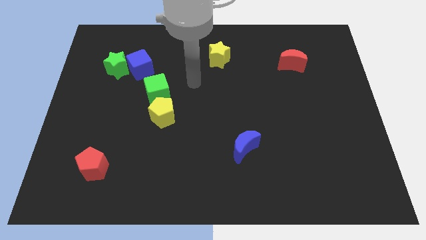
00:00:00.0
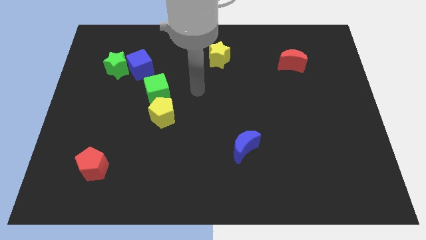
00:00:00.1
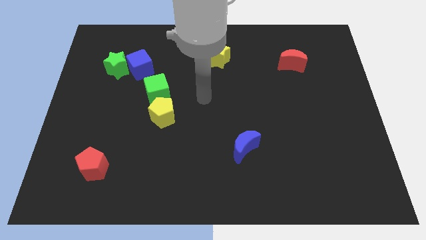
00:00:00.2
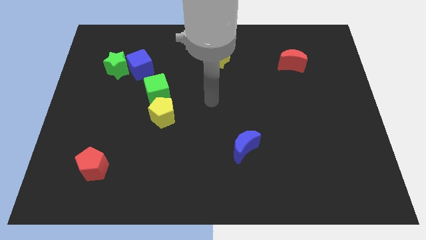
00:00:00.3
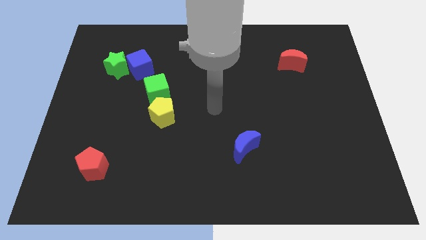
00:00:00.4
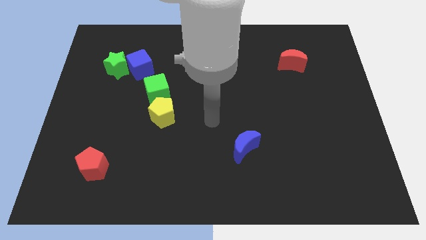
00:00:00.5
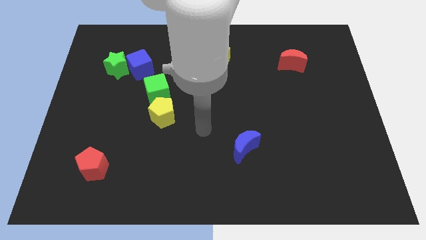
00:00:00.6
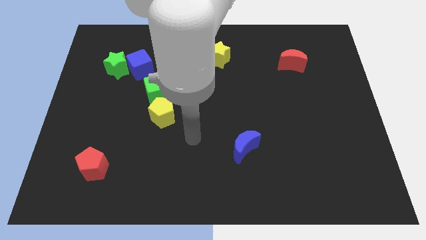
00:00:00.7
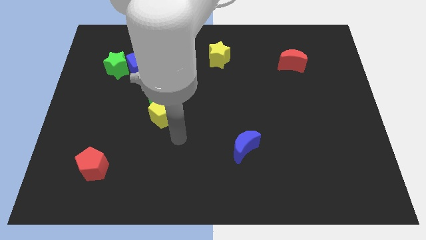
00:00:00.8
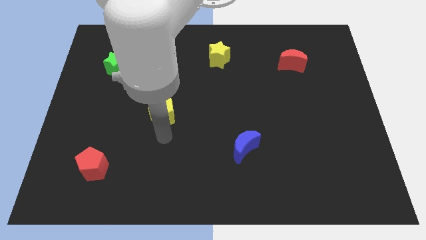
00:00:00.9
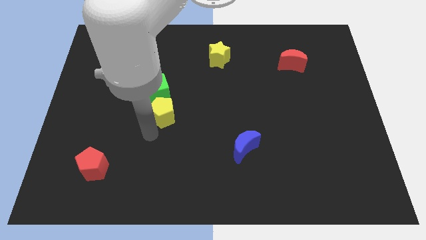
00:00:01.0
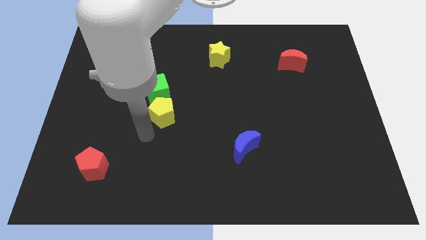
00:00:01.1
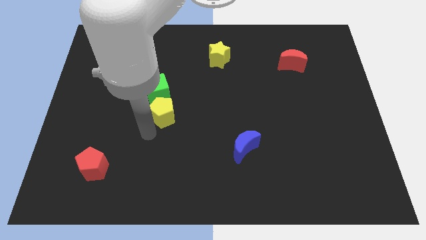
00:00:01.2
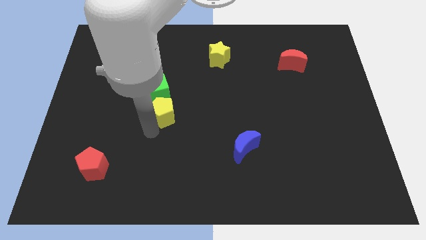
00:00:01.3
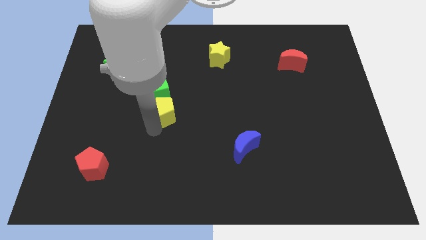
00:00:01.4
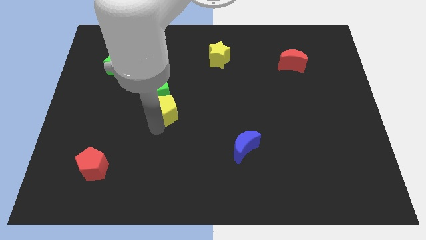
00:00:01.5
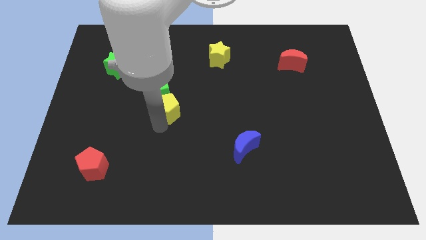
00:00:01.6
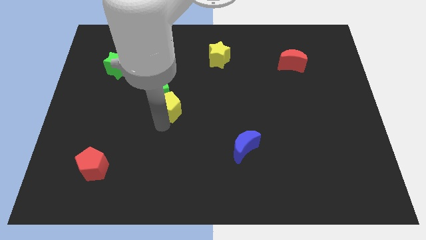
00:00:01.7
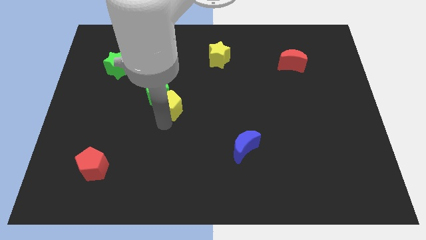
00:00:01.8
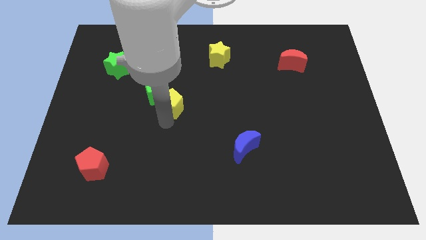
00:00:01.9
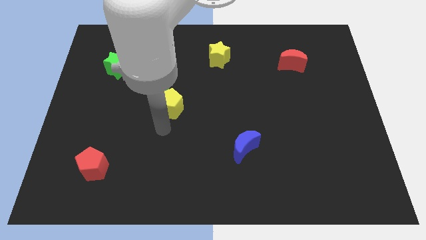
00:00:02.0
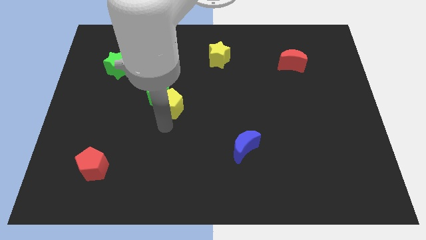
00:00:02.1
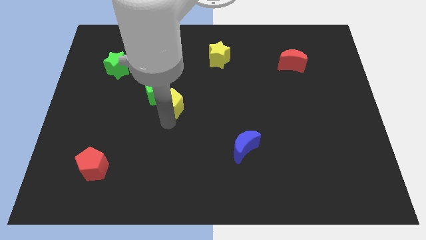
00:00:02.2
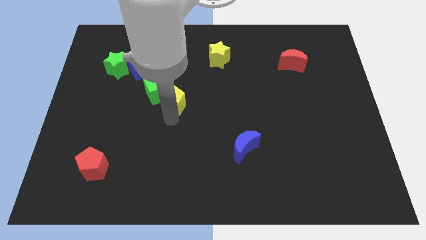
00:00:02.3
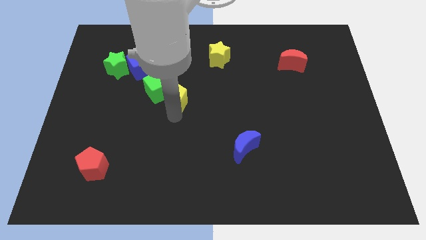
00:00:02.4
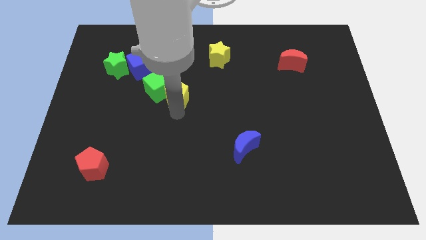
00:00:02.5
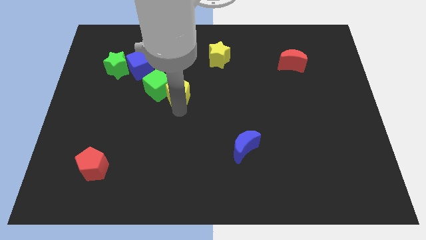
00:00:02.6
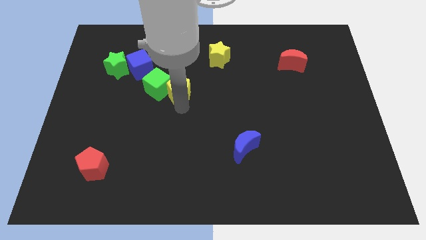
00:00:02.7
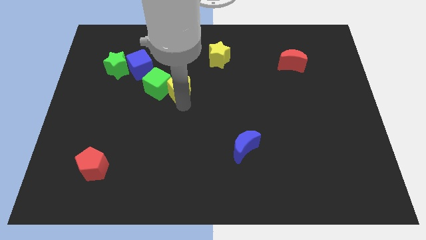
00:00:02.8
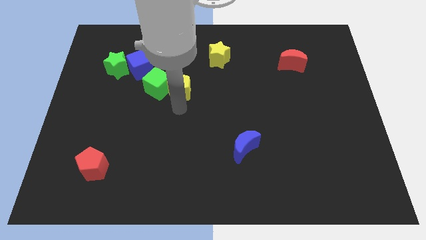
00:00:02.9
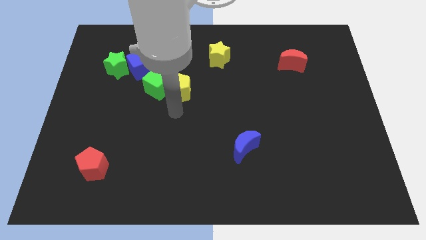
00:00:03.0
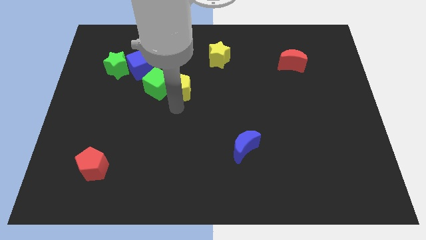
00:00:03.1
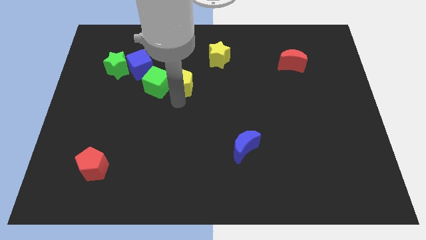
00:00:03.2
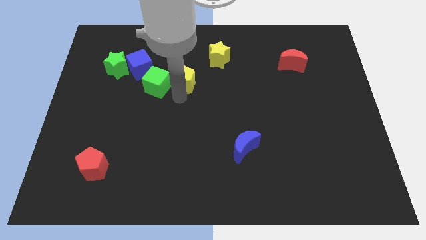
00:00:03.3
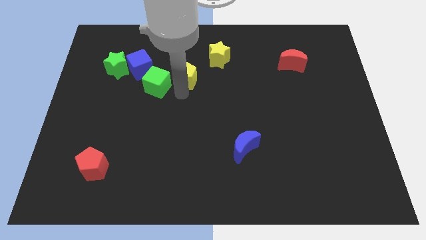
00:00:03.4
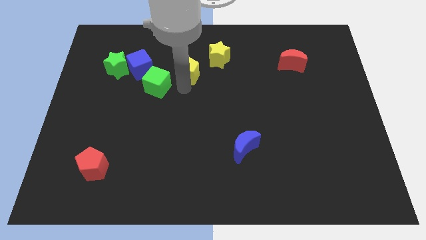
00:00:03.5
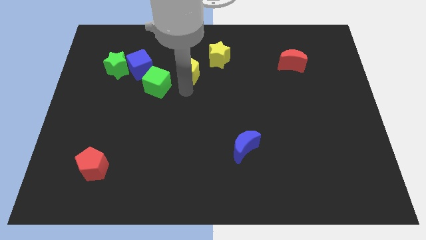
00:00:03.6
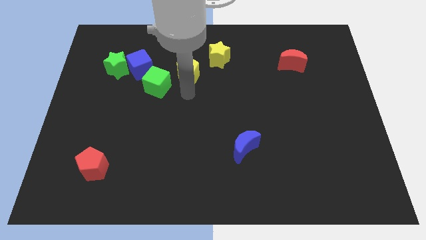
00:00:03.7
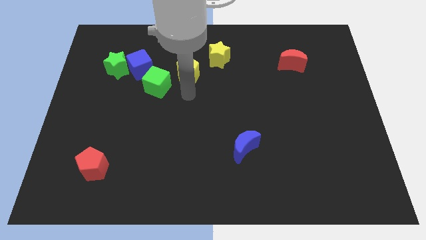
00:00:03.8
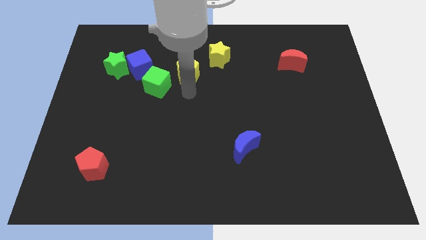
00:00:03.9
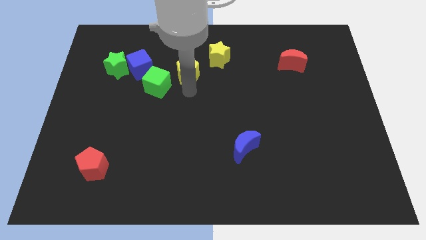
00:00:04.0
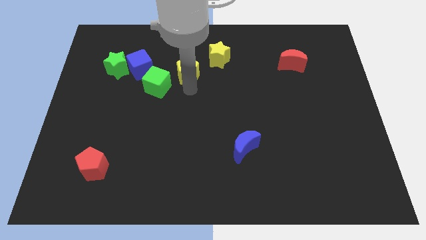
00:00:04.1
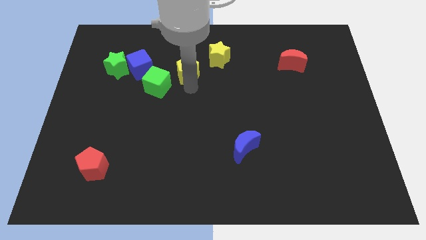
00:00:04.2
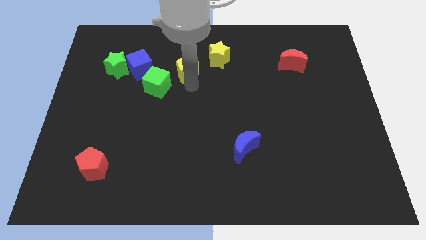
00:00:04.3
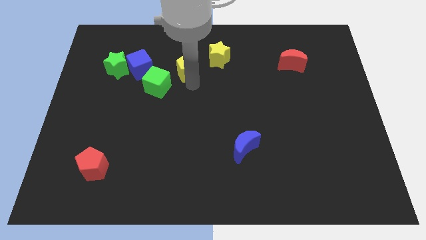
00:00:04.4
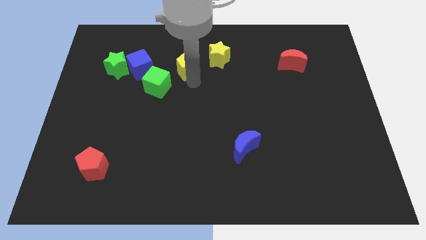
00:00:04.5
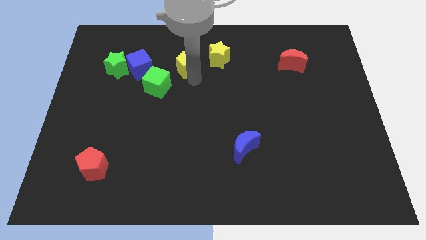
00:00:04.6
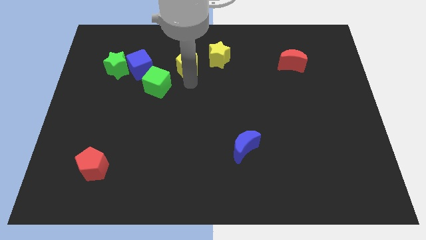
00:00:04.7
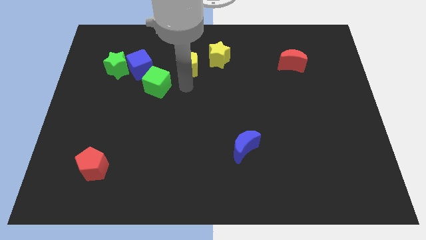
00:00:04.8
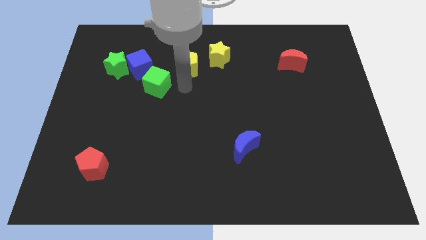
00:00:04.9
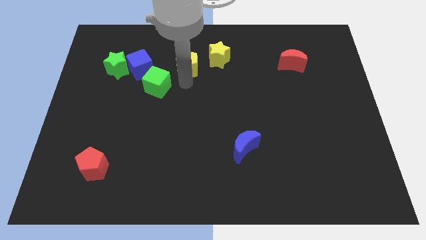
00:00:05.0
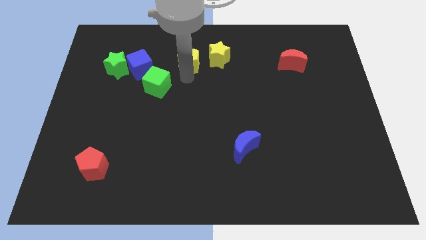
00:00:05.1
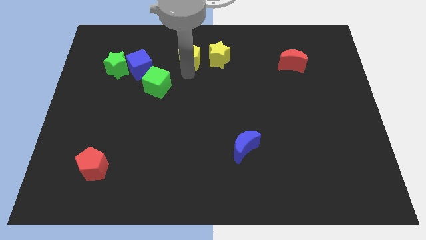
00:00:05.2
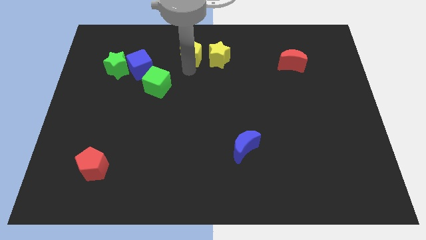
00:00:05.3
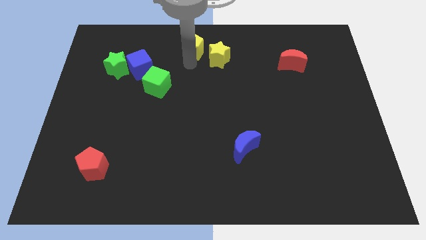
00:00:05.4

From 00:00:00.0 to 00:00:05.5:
put the yellow pentagon to the towards your base
